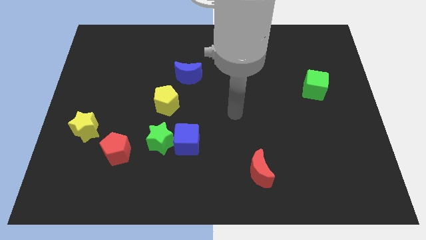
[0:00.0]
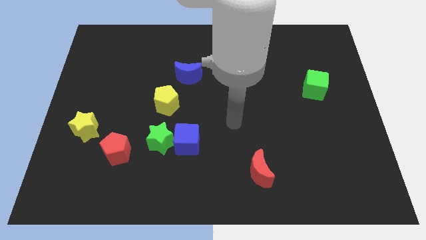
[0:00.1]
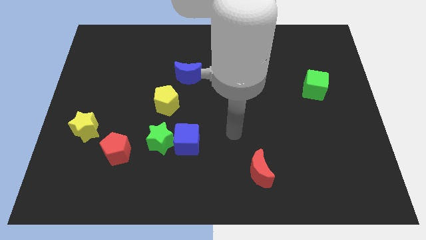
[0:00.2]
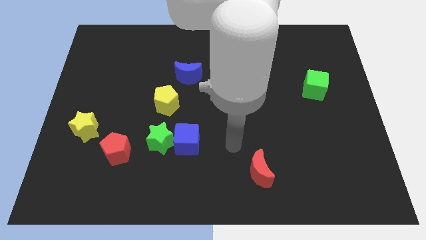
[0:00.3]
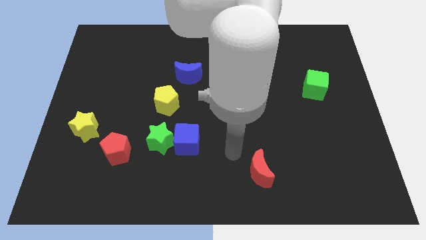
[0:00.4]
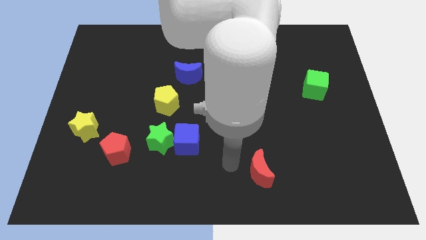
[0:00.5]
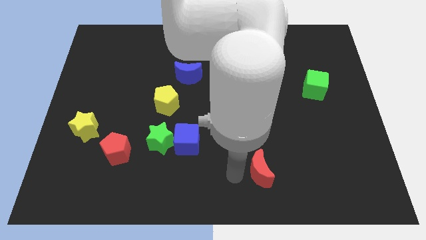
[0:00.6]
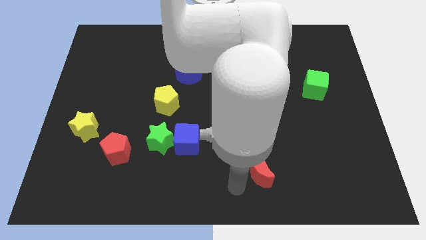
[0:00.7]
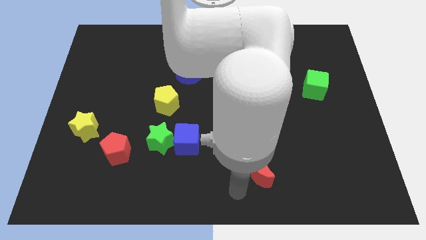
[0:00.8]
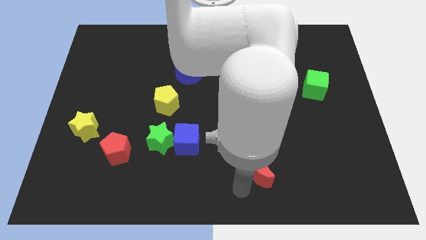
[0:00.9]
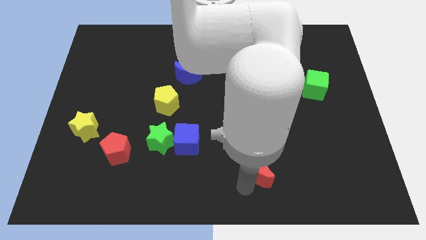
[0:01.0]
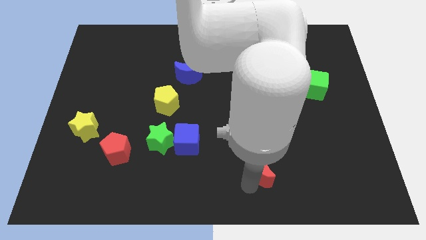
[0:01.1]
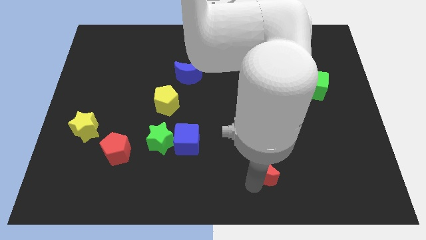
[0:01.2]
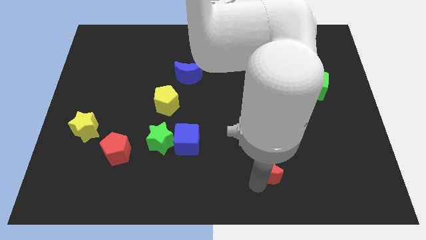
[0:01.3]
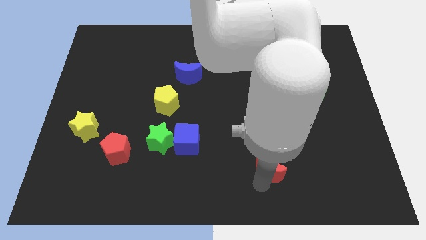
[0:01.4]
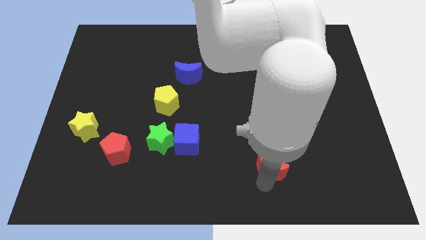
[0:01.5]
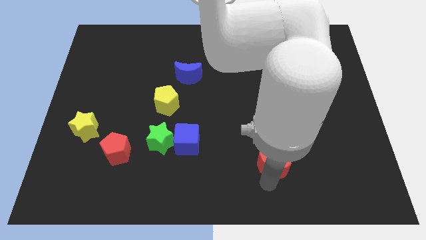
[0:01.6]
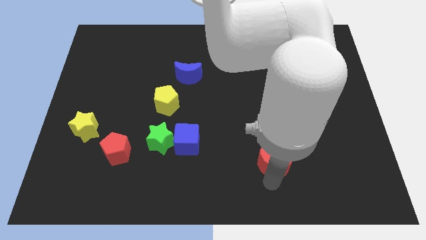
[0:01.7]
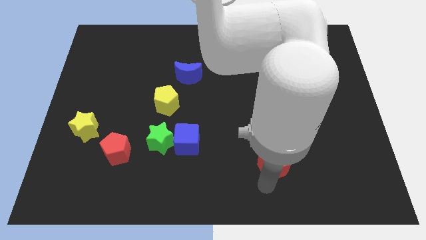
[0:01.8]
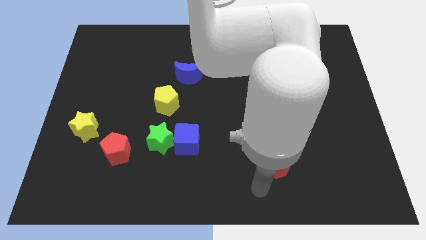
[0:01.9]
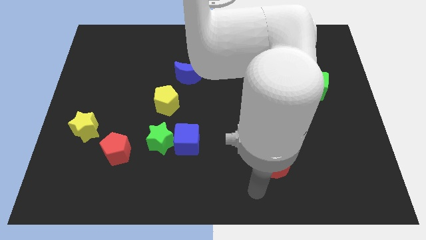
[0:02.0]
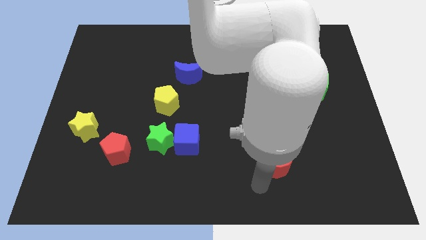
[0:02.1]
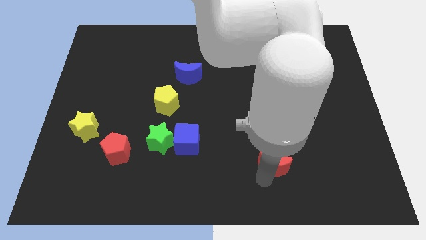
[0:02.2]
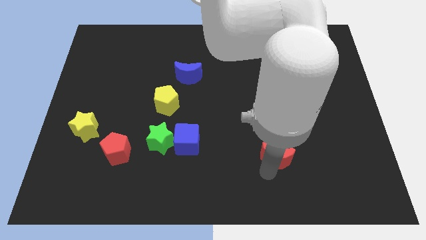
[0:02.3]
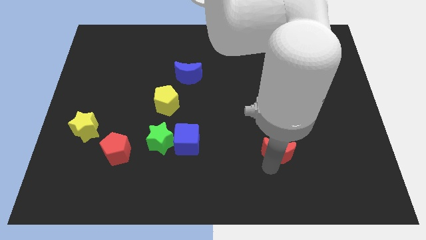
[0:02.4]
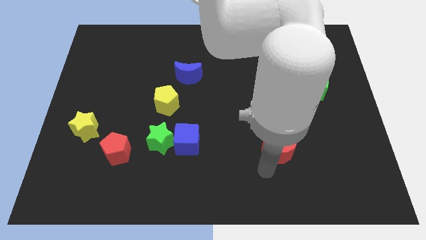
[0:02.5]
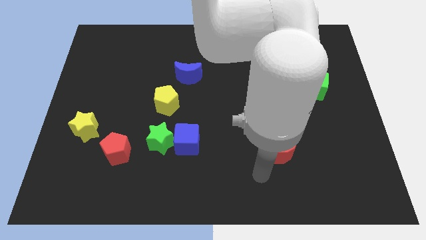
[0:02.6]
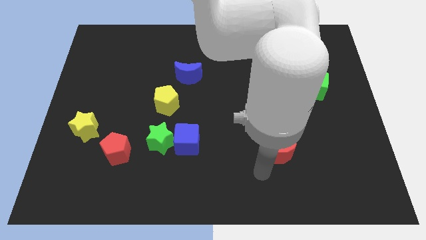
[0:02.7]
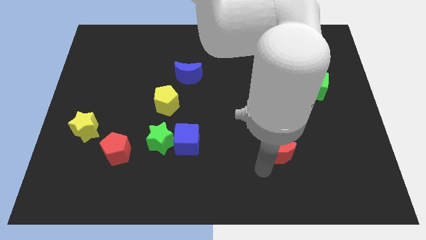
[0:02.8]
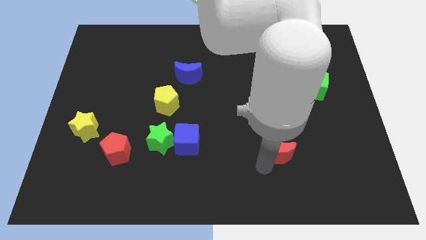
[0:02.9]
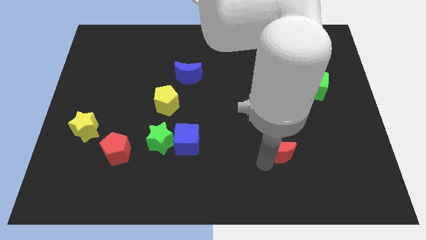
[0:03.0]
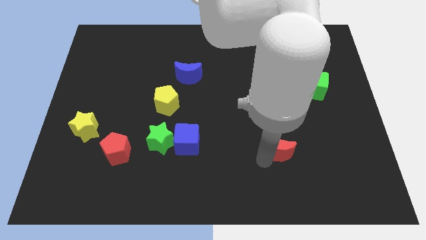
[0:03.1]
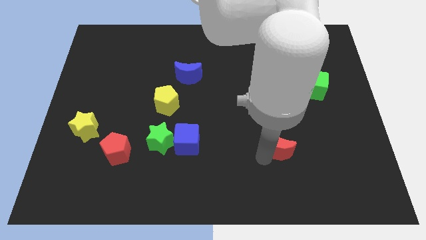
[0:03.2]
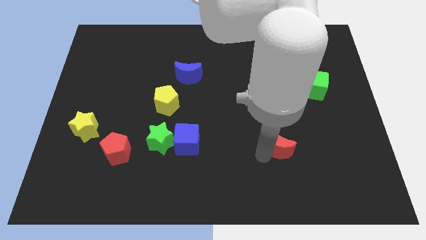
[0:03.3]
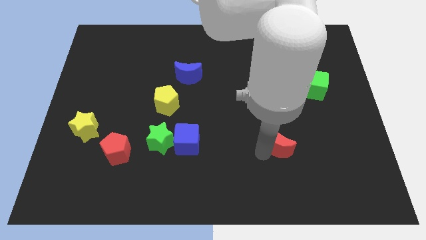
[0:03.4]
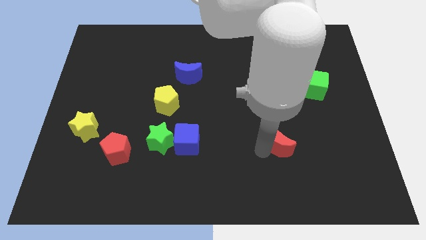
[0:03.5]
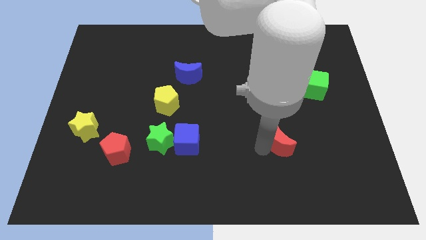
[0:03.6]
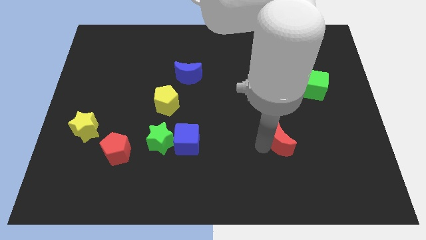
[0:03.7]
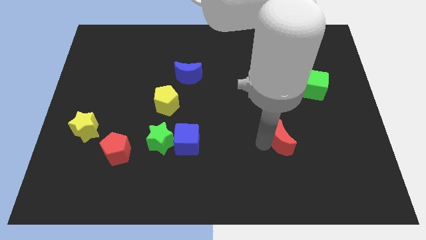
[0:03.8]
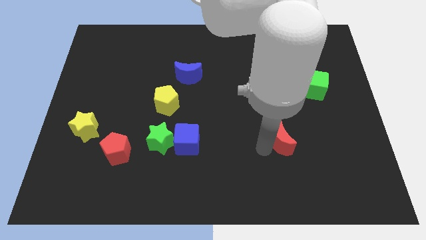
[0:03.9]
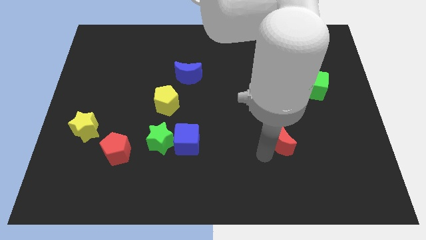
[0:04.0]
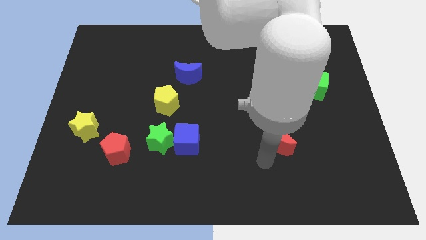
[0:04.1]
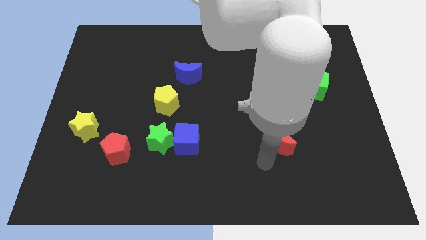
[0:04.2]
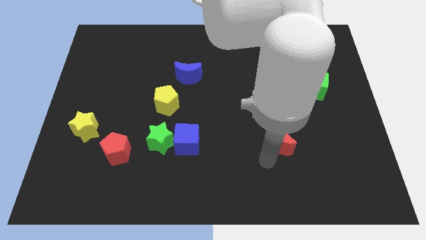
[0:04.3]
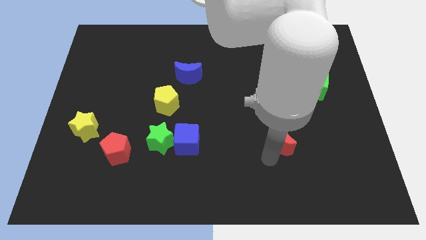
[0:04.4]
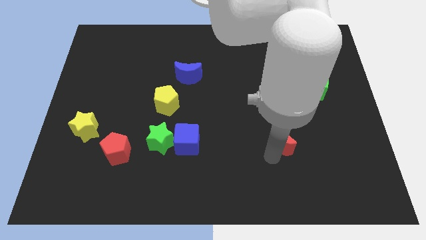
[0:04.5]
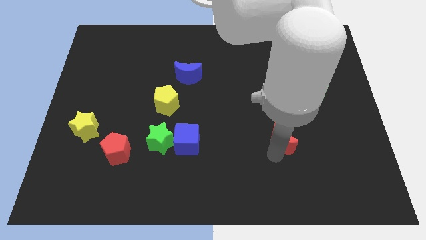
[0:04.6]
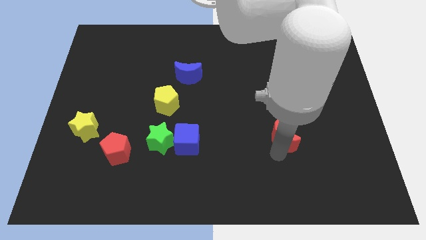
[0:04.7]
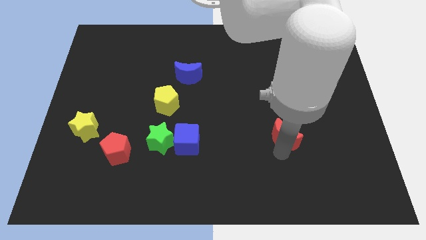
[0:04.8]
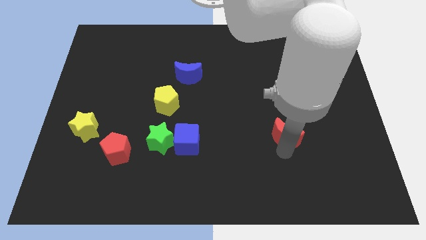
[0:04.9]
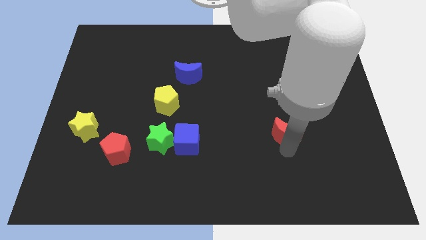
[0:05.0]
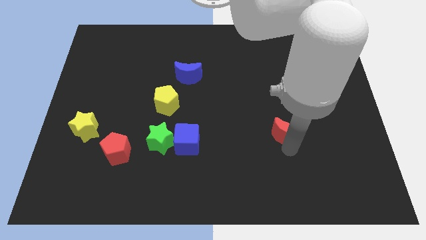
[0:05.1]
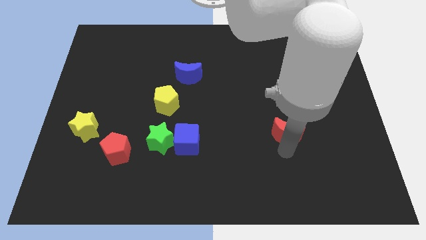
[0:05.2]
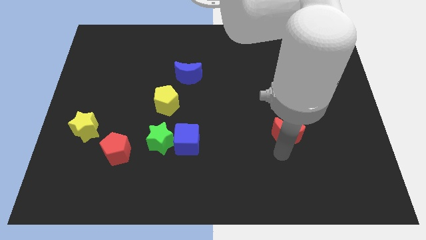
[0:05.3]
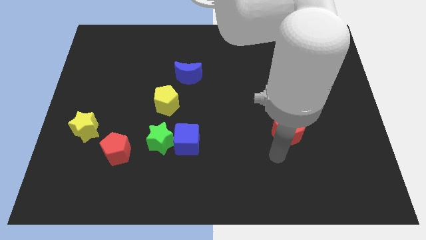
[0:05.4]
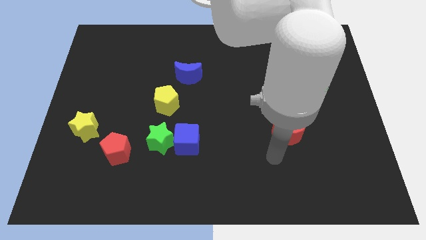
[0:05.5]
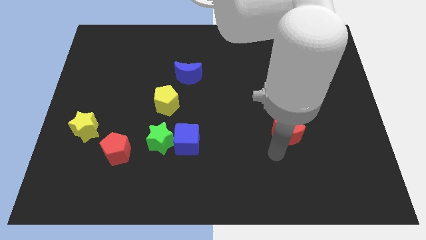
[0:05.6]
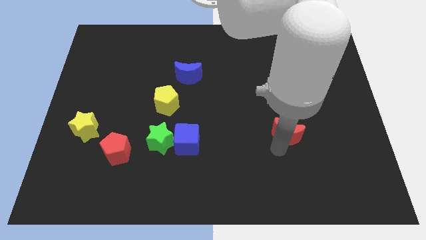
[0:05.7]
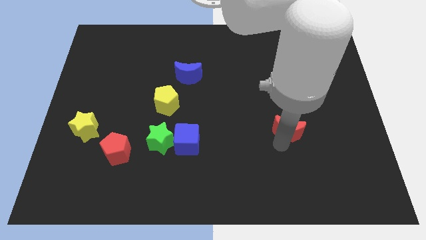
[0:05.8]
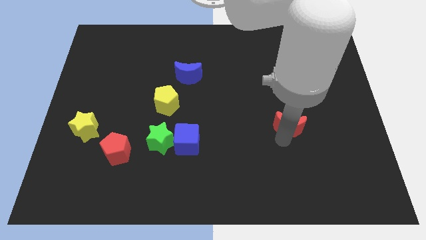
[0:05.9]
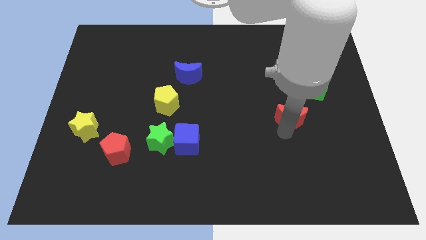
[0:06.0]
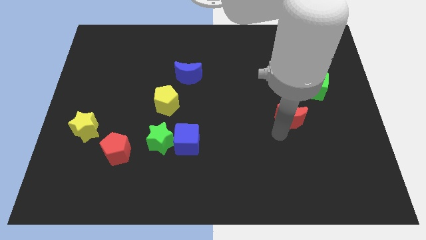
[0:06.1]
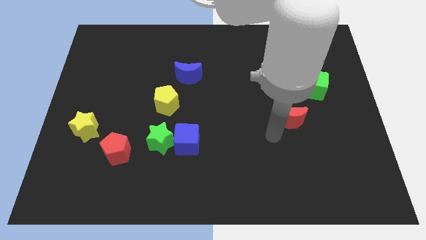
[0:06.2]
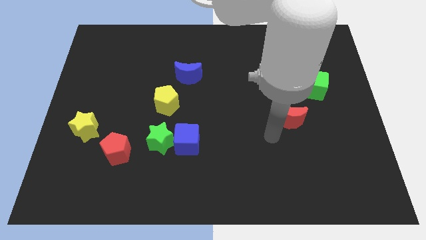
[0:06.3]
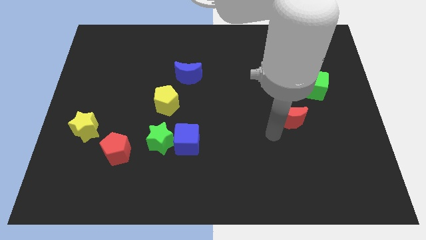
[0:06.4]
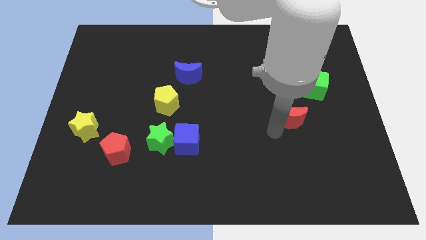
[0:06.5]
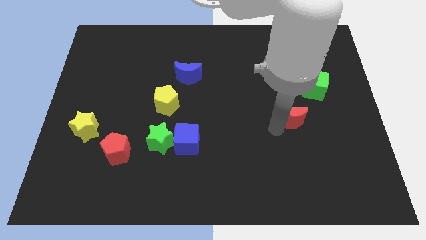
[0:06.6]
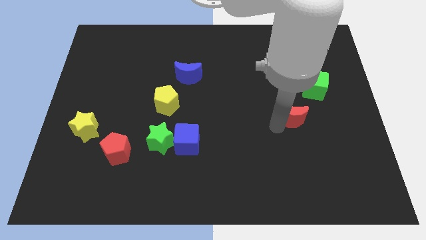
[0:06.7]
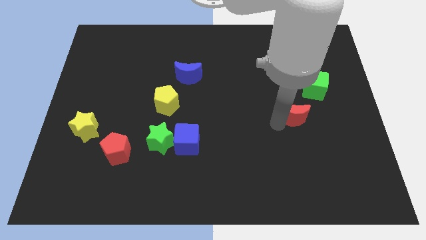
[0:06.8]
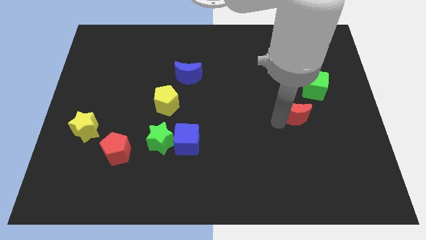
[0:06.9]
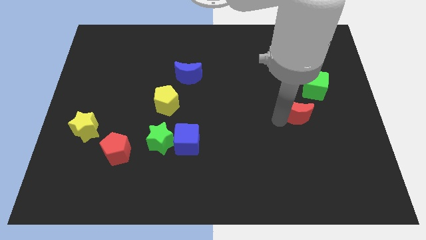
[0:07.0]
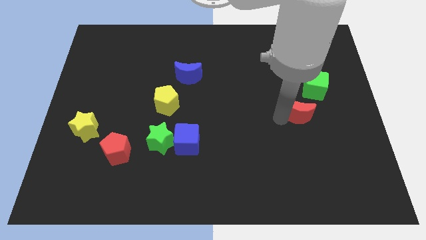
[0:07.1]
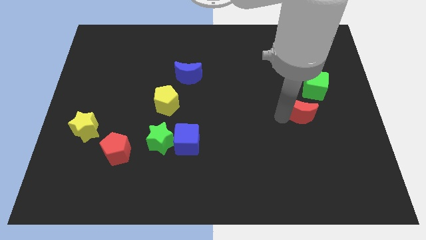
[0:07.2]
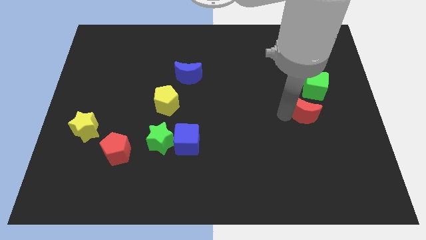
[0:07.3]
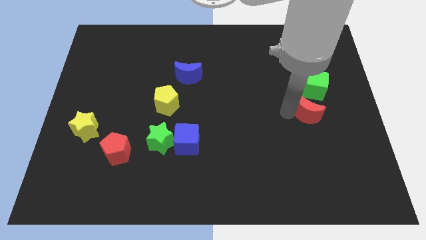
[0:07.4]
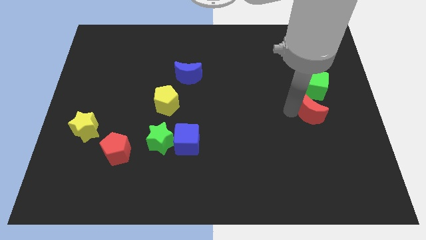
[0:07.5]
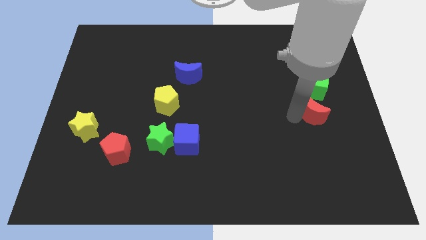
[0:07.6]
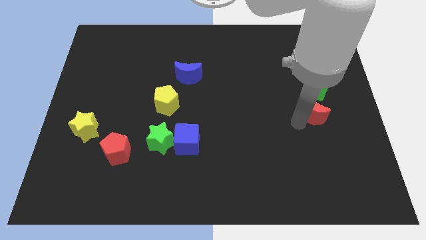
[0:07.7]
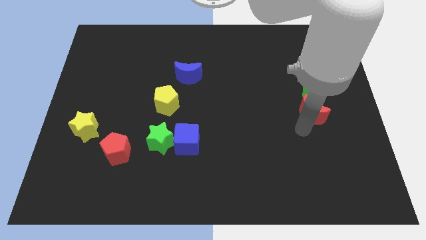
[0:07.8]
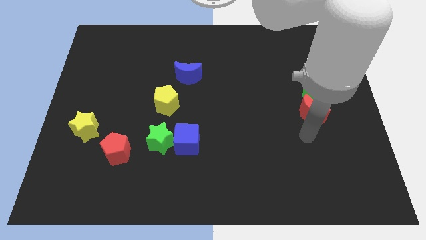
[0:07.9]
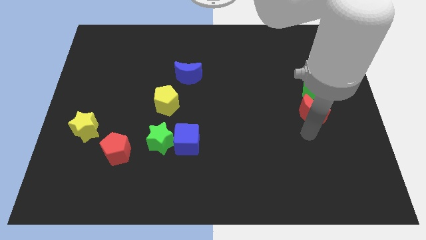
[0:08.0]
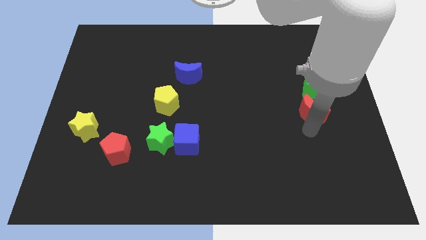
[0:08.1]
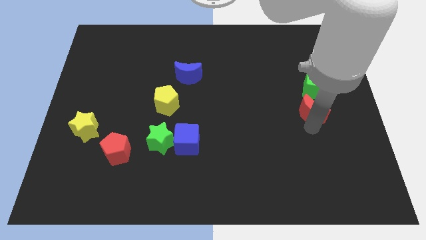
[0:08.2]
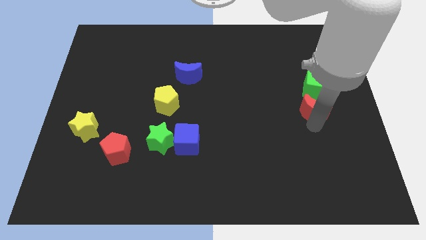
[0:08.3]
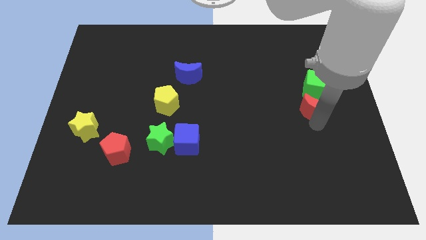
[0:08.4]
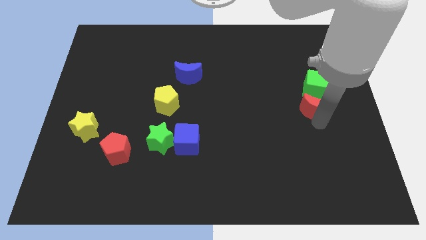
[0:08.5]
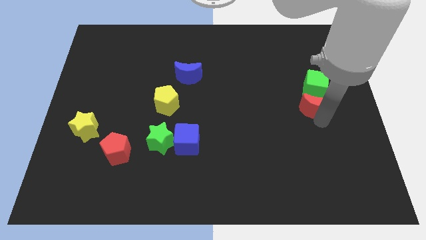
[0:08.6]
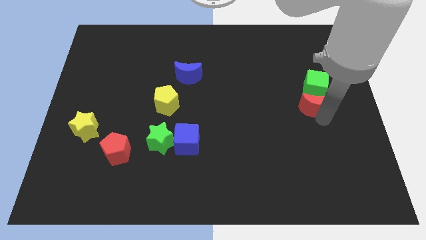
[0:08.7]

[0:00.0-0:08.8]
slide the red moon next to the green cube
